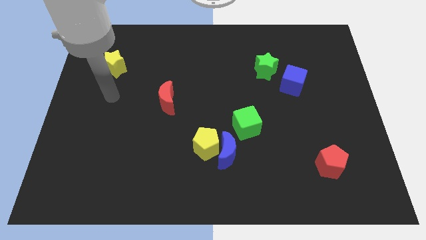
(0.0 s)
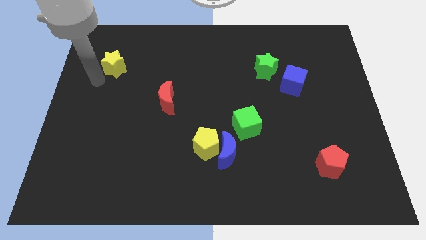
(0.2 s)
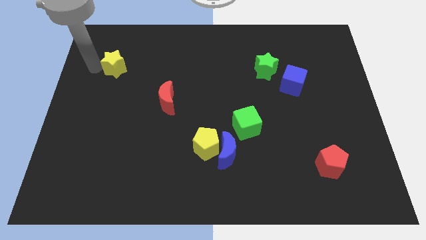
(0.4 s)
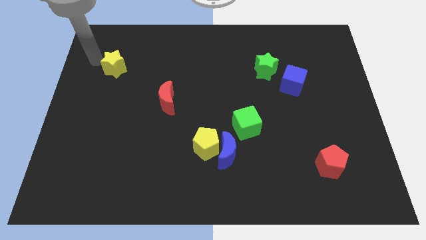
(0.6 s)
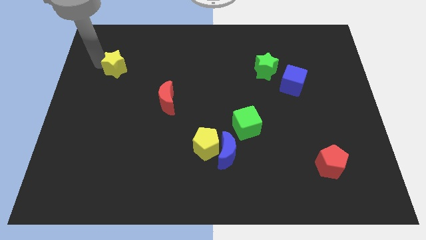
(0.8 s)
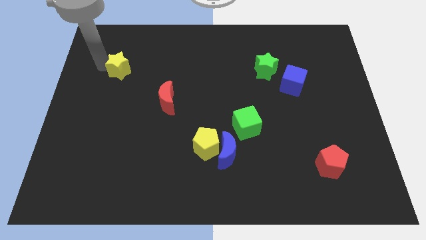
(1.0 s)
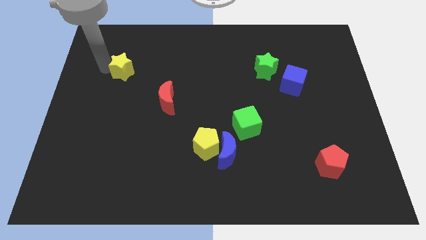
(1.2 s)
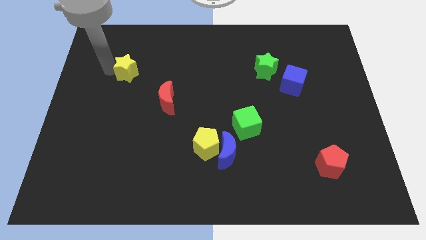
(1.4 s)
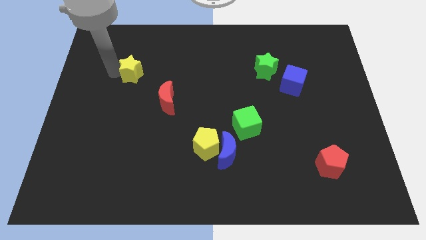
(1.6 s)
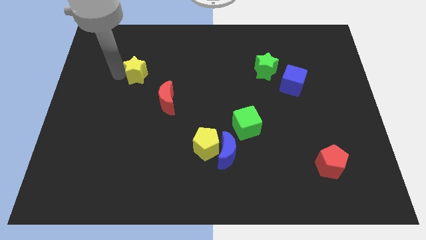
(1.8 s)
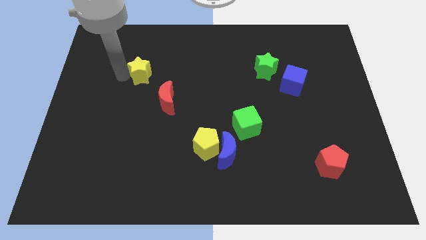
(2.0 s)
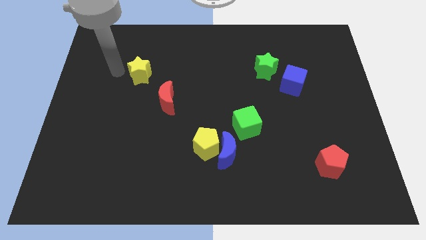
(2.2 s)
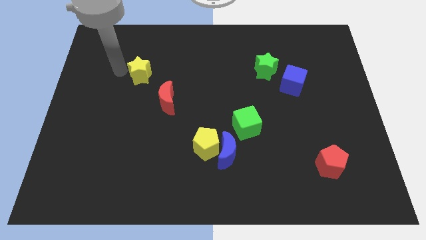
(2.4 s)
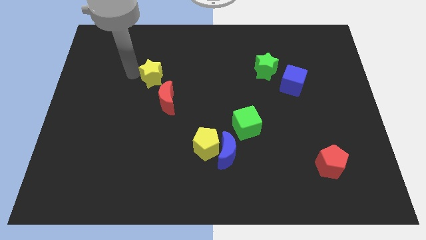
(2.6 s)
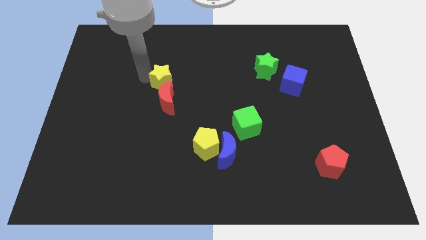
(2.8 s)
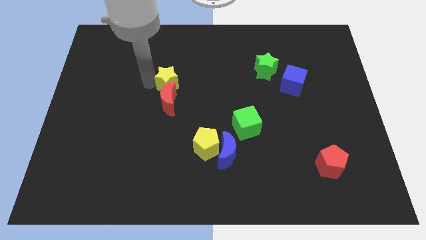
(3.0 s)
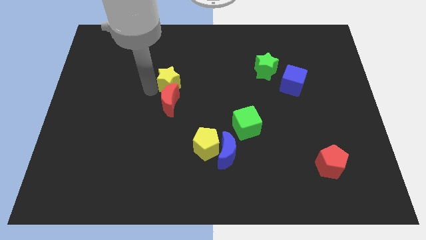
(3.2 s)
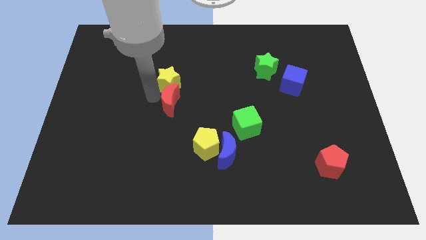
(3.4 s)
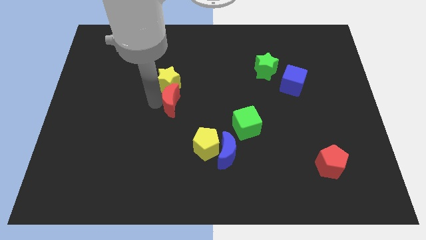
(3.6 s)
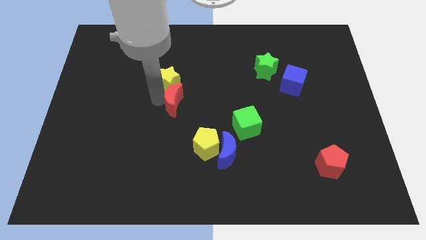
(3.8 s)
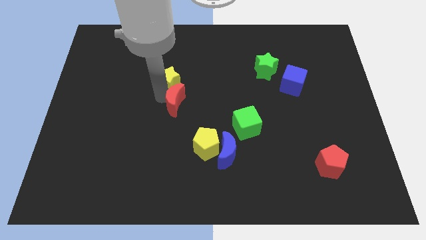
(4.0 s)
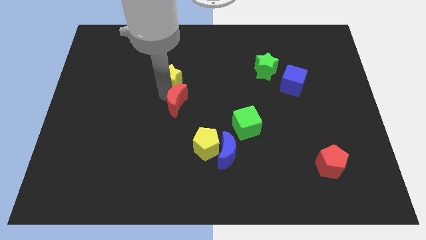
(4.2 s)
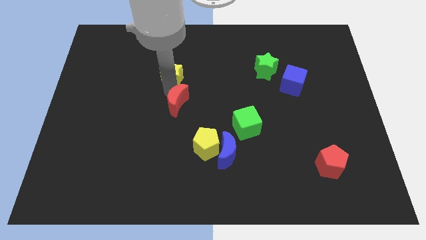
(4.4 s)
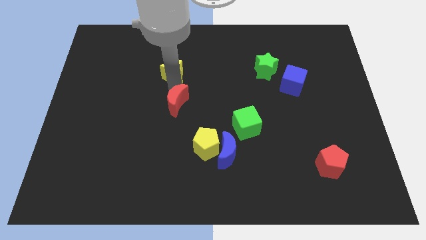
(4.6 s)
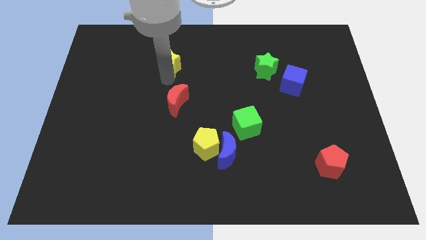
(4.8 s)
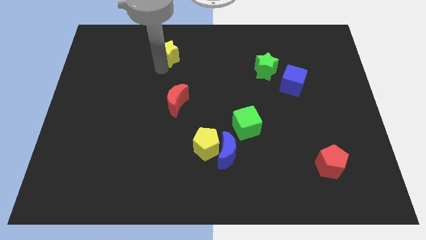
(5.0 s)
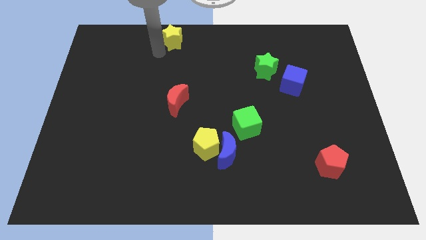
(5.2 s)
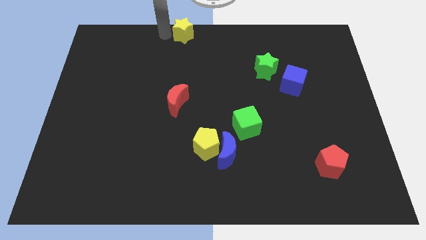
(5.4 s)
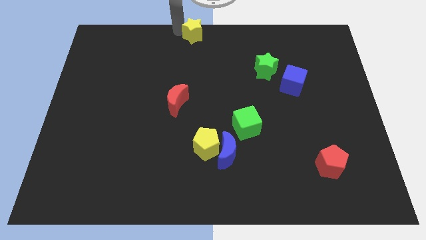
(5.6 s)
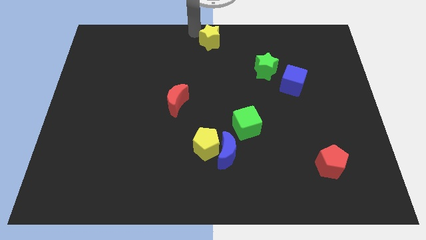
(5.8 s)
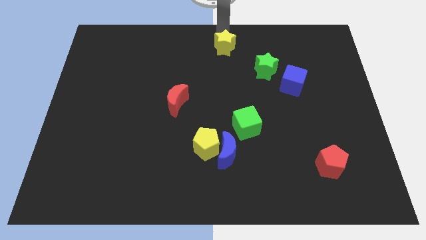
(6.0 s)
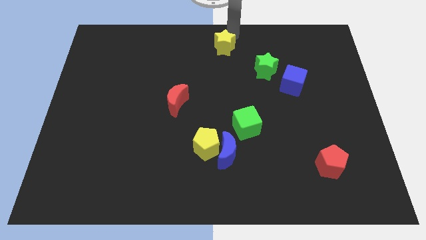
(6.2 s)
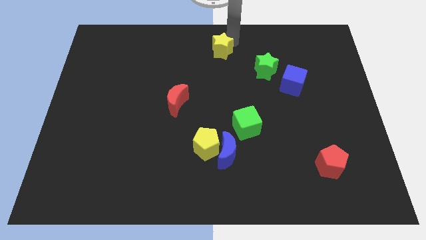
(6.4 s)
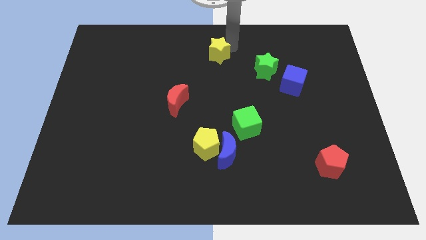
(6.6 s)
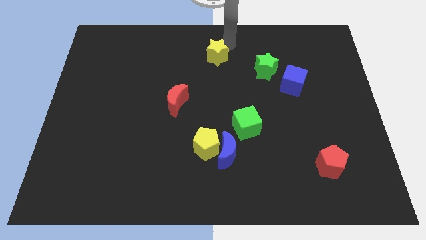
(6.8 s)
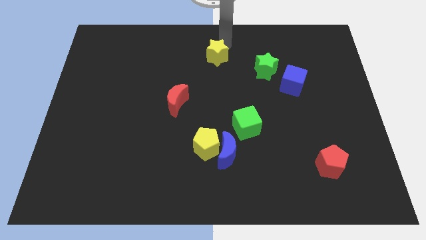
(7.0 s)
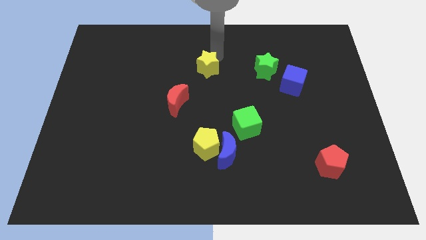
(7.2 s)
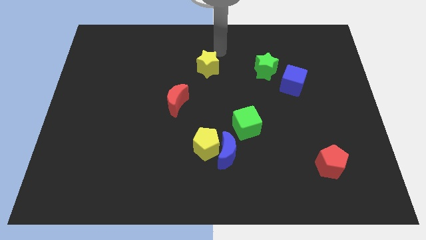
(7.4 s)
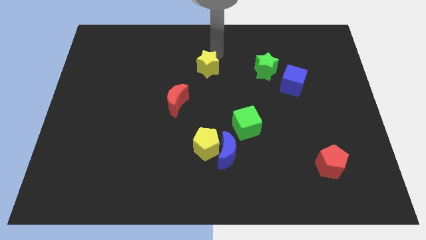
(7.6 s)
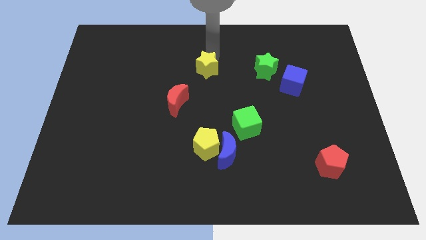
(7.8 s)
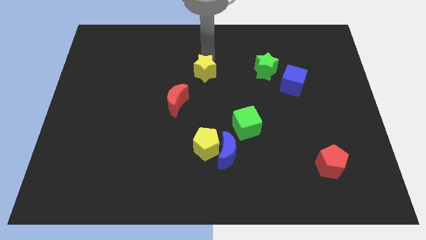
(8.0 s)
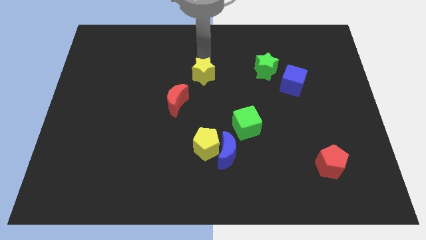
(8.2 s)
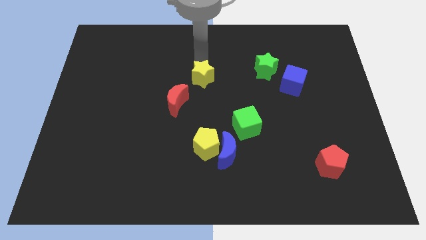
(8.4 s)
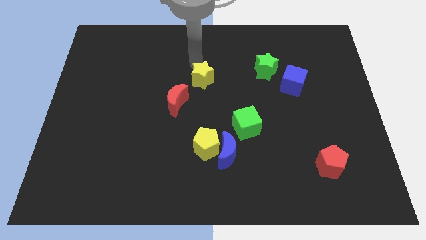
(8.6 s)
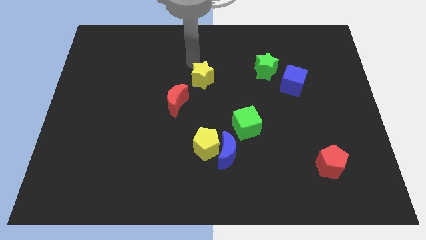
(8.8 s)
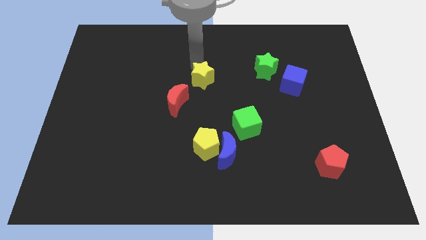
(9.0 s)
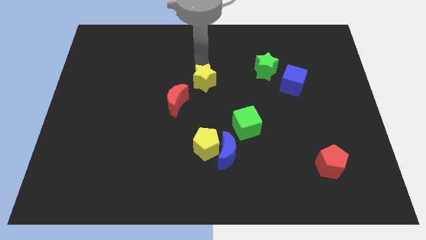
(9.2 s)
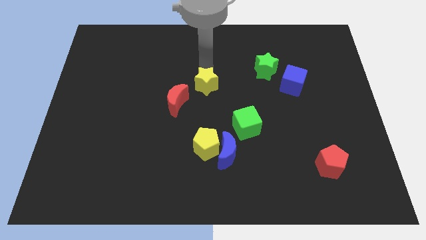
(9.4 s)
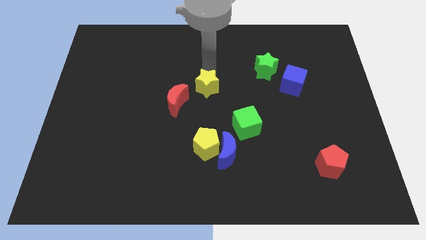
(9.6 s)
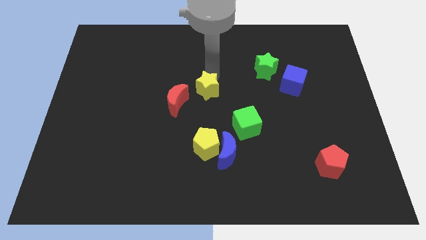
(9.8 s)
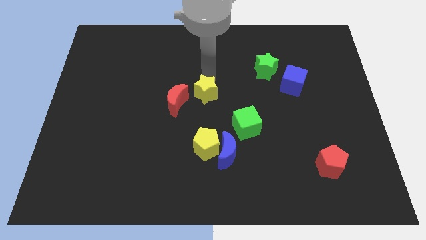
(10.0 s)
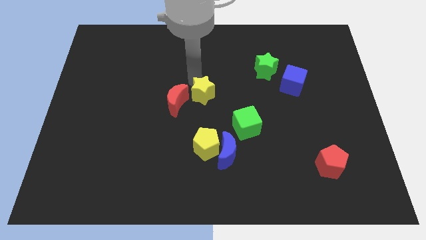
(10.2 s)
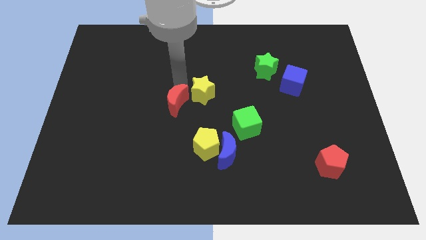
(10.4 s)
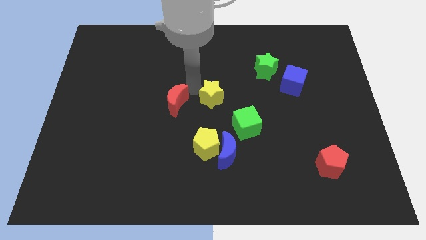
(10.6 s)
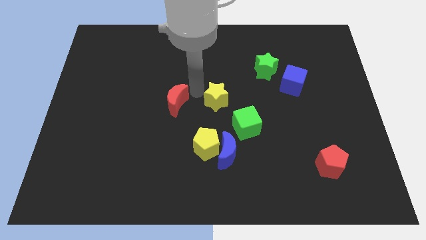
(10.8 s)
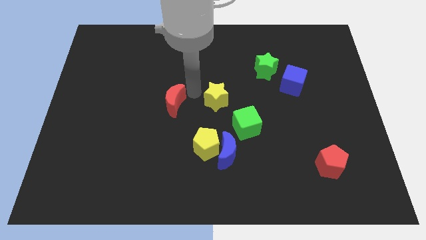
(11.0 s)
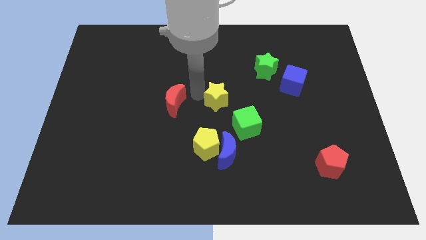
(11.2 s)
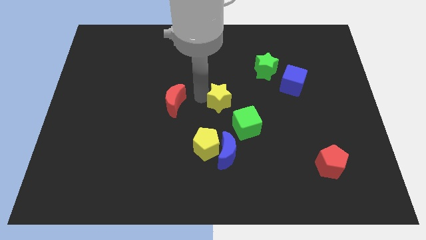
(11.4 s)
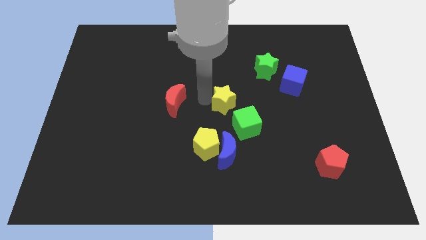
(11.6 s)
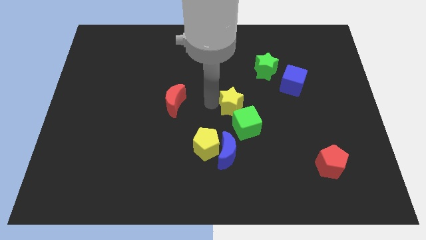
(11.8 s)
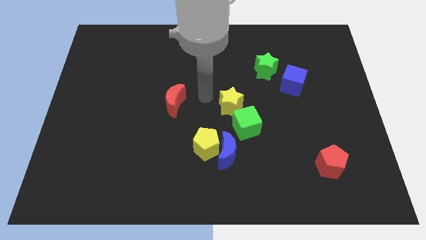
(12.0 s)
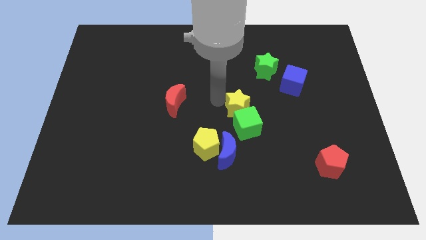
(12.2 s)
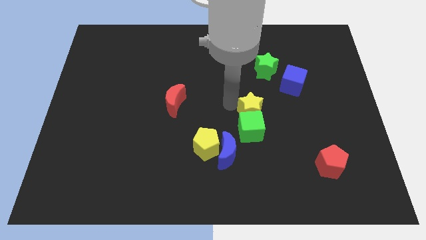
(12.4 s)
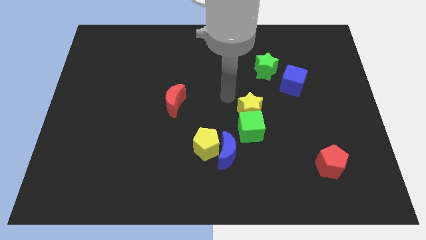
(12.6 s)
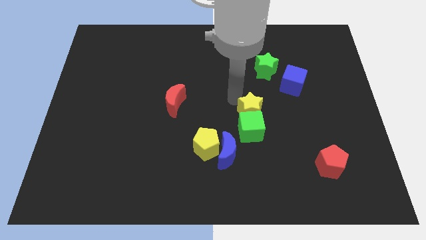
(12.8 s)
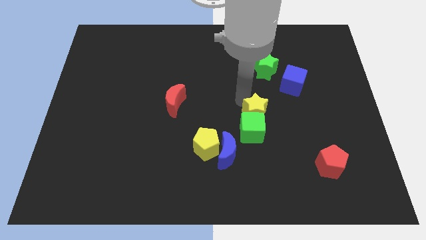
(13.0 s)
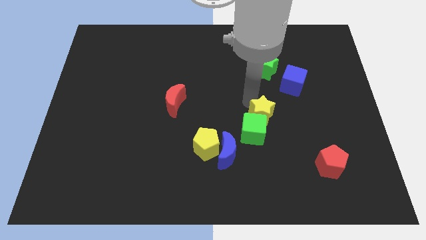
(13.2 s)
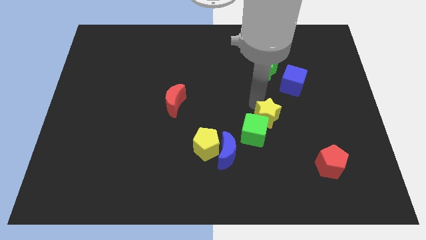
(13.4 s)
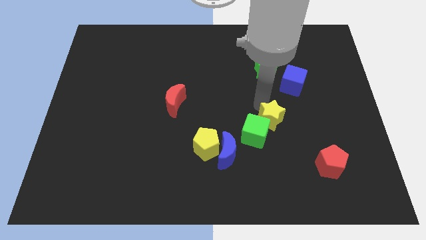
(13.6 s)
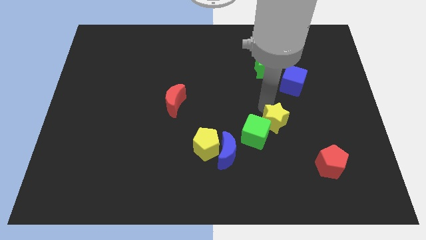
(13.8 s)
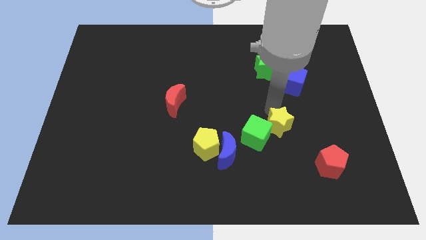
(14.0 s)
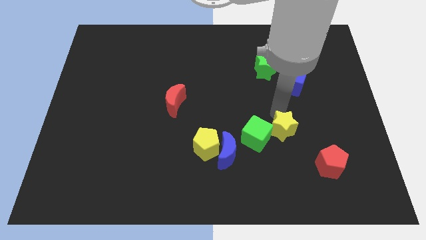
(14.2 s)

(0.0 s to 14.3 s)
slide the yellow star to the top left side of the red pentagon

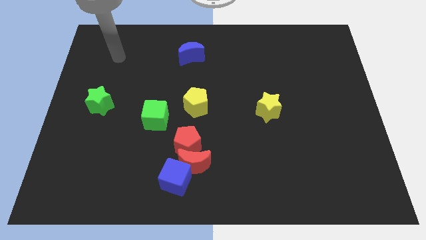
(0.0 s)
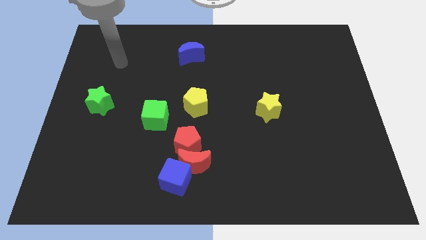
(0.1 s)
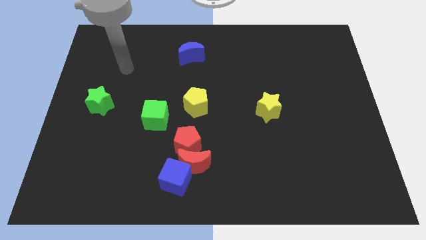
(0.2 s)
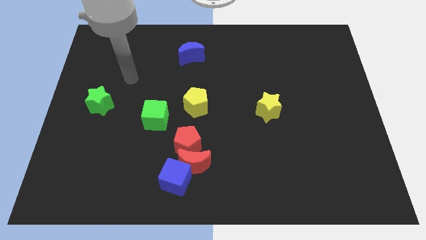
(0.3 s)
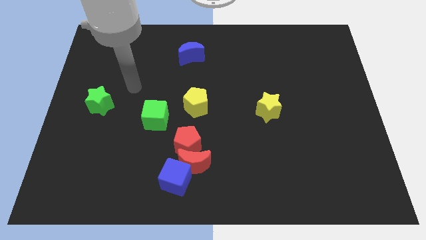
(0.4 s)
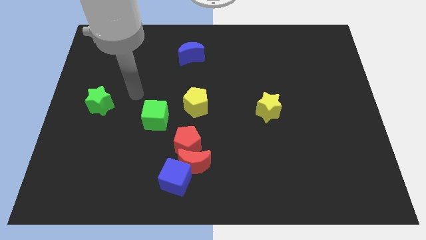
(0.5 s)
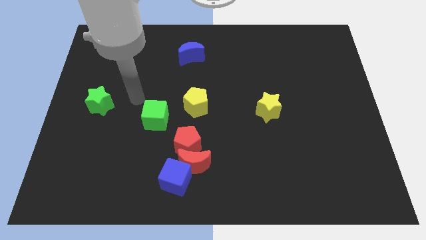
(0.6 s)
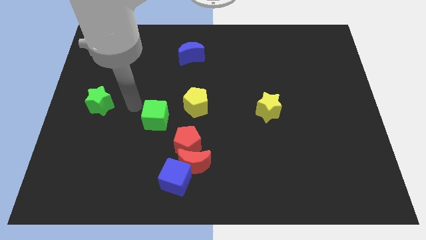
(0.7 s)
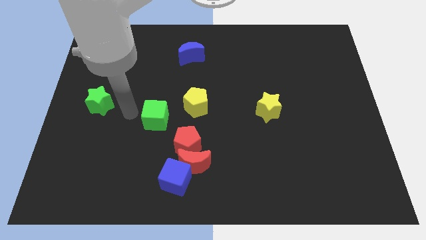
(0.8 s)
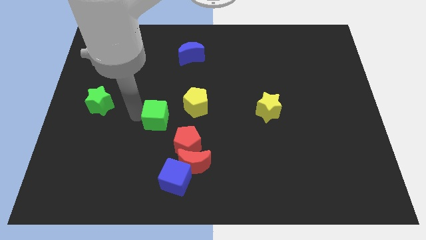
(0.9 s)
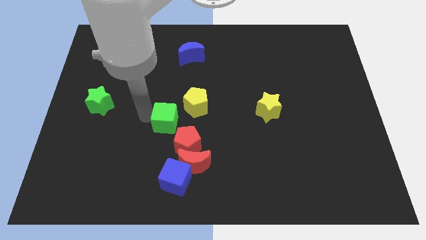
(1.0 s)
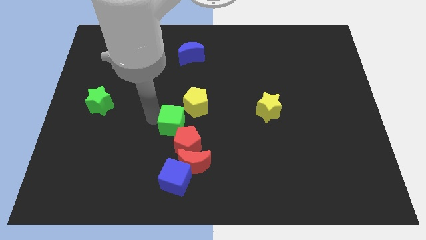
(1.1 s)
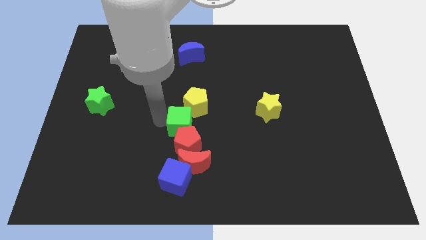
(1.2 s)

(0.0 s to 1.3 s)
put the green cube to the top of the red moon
